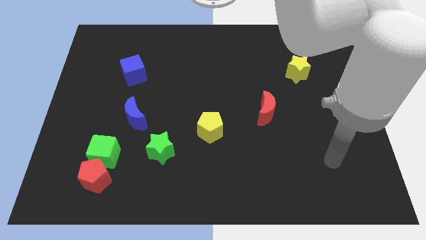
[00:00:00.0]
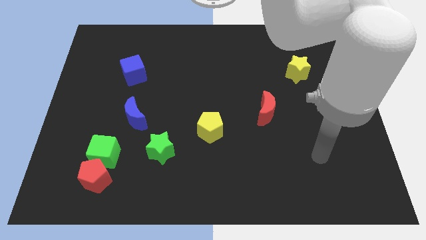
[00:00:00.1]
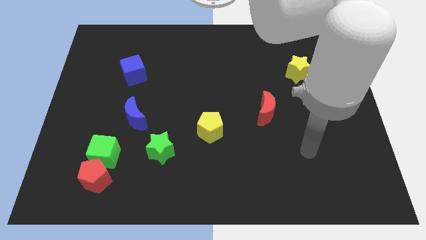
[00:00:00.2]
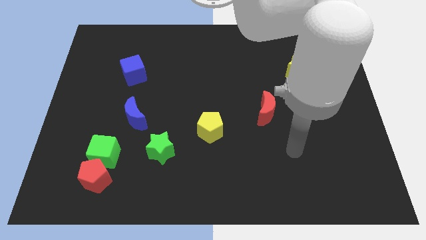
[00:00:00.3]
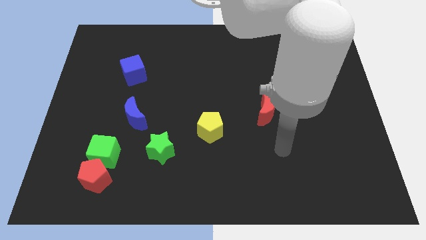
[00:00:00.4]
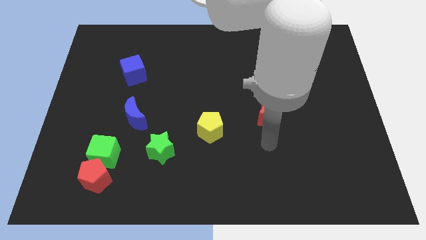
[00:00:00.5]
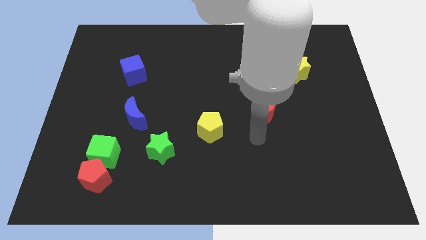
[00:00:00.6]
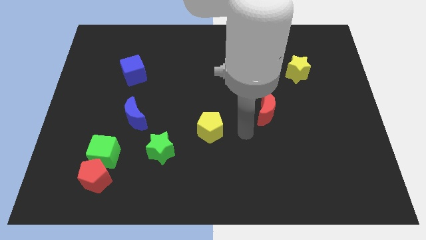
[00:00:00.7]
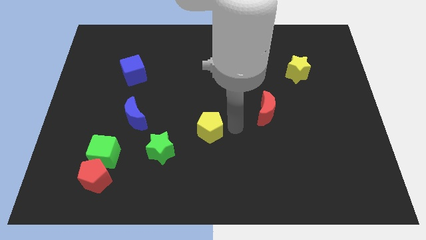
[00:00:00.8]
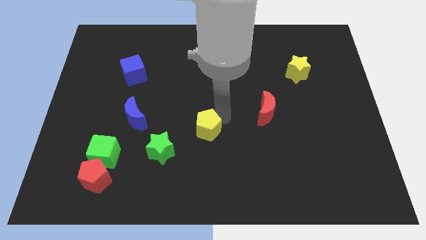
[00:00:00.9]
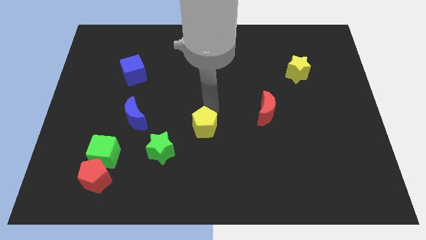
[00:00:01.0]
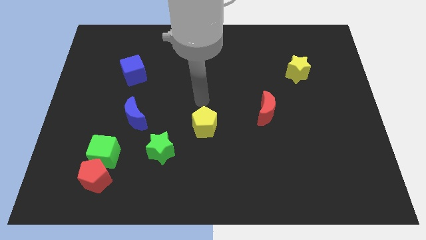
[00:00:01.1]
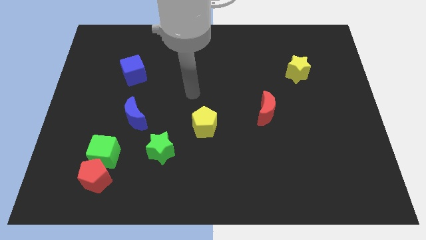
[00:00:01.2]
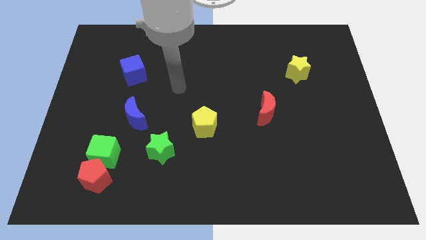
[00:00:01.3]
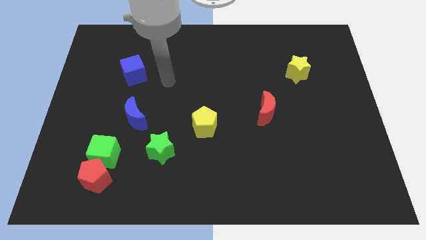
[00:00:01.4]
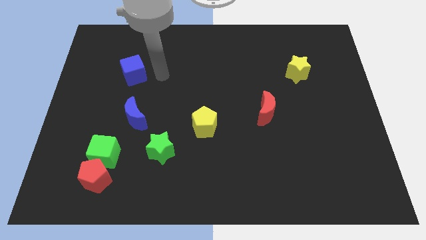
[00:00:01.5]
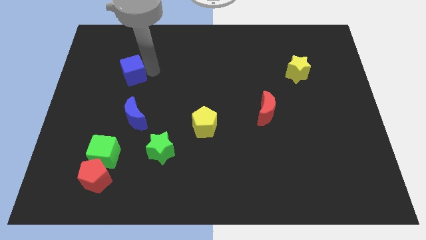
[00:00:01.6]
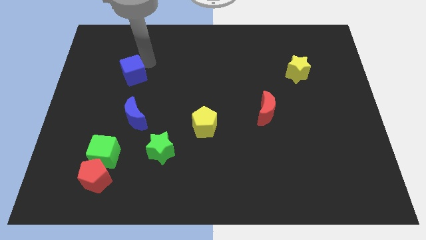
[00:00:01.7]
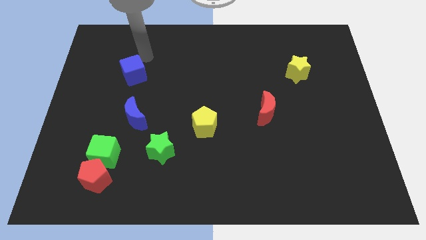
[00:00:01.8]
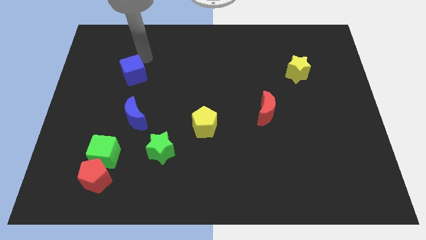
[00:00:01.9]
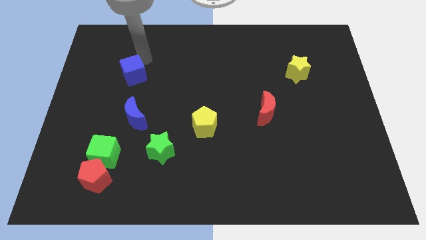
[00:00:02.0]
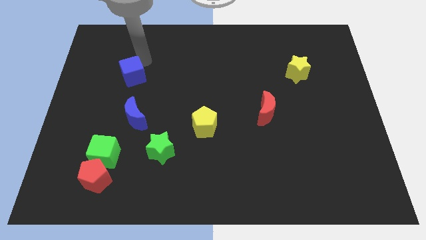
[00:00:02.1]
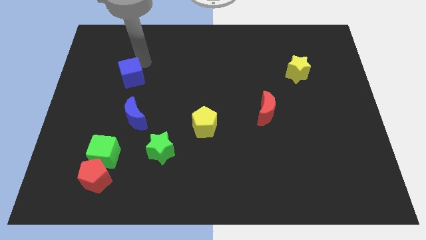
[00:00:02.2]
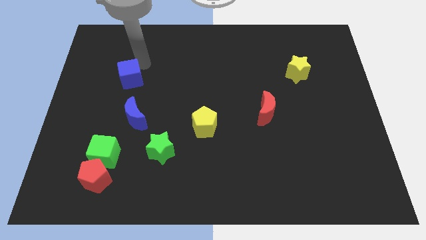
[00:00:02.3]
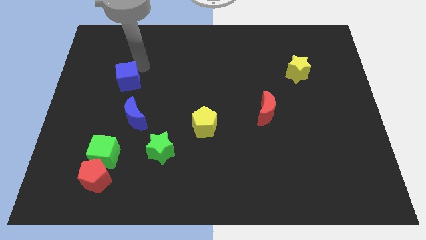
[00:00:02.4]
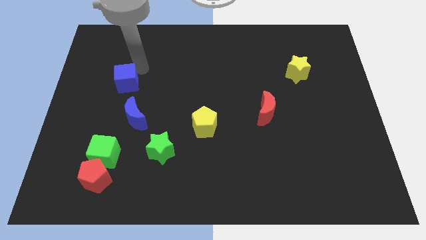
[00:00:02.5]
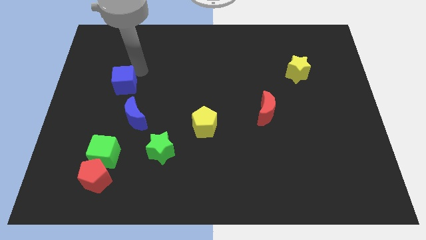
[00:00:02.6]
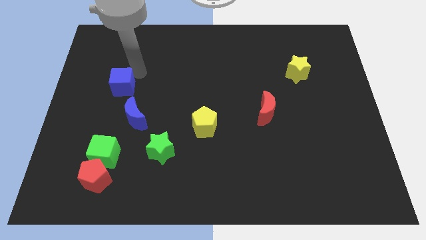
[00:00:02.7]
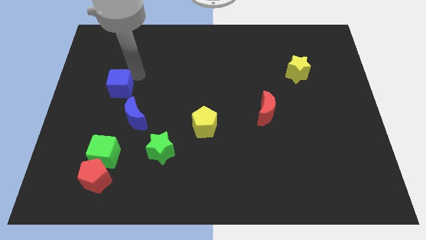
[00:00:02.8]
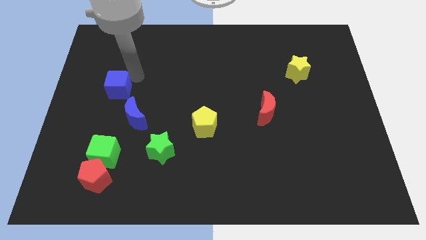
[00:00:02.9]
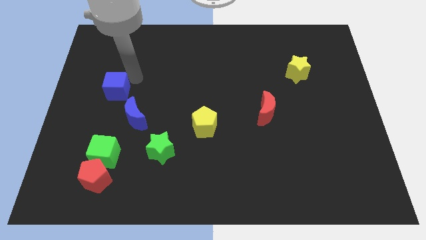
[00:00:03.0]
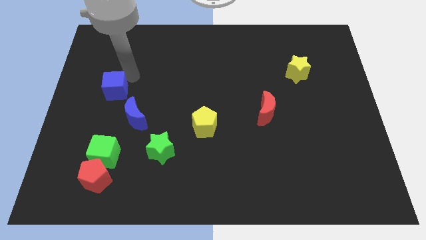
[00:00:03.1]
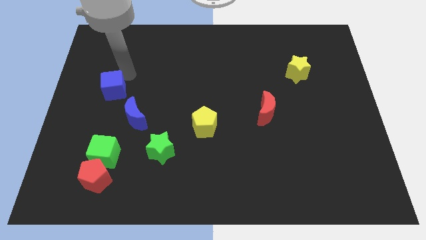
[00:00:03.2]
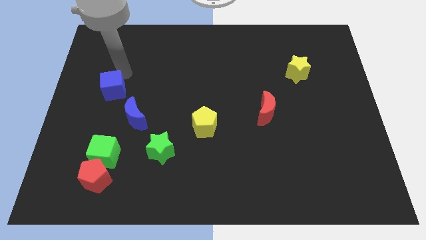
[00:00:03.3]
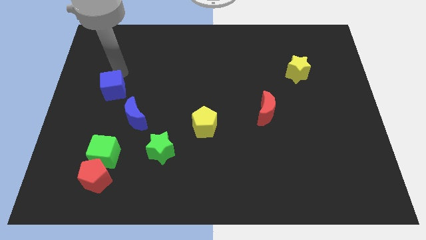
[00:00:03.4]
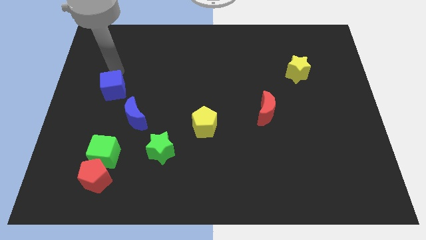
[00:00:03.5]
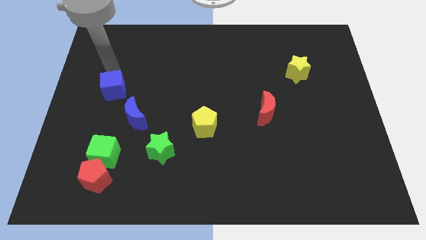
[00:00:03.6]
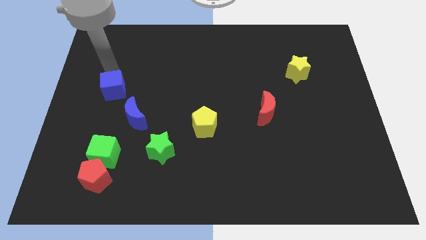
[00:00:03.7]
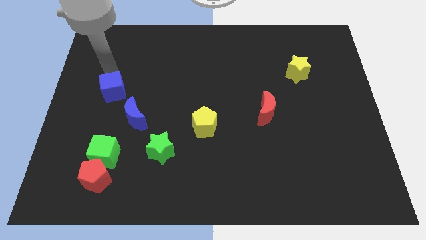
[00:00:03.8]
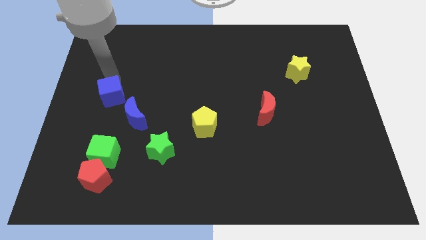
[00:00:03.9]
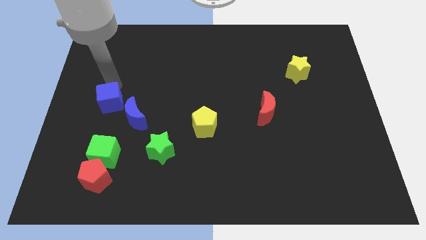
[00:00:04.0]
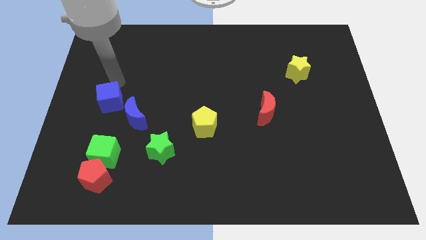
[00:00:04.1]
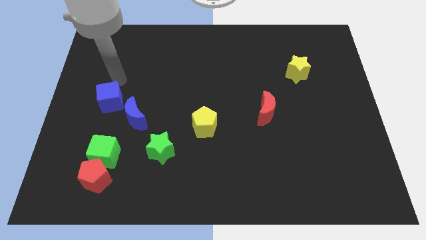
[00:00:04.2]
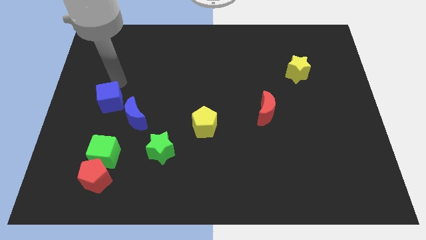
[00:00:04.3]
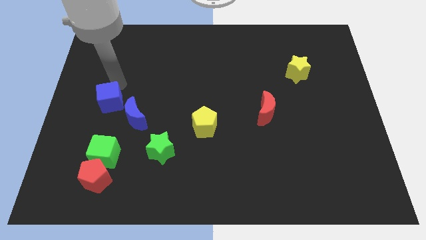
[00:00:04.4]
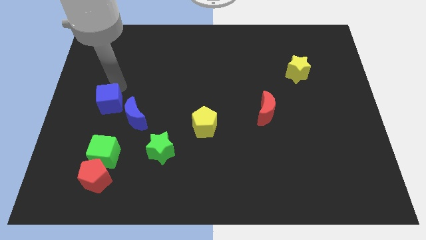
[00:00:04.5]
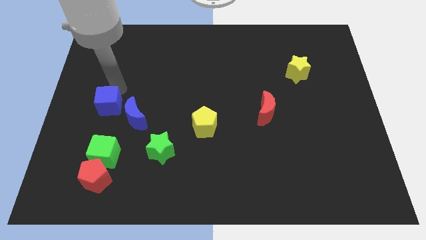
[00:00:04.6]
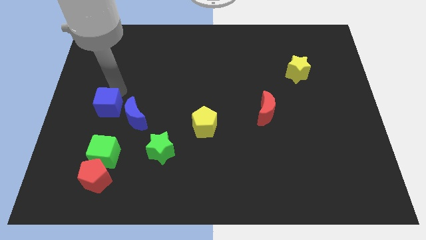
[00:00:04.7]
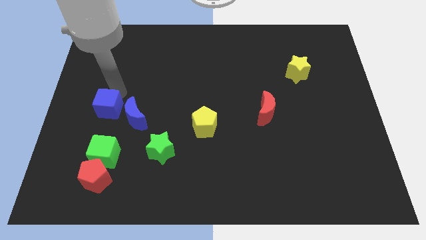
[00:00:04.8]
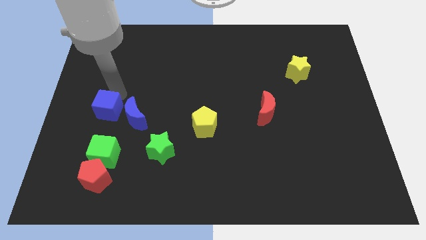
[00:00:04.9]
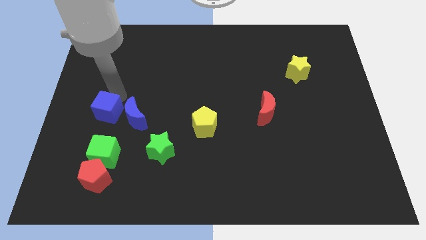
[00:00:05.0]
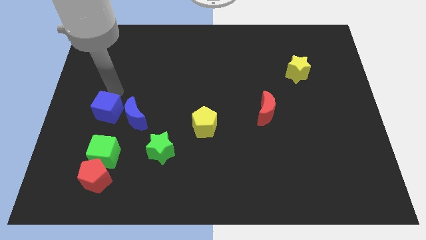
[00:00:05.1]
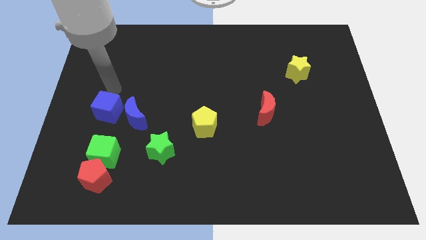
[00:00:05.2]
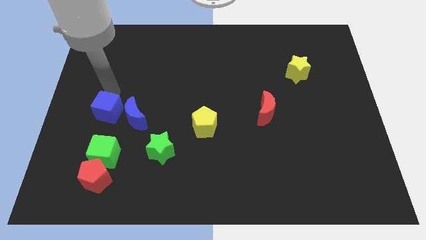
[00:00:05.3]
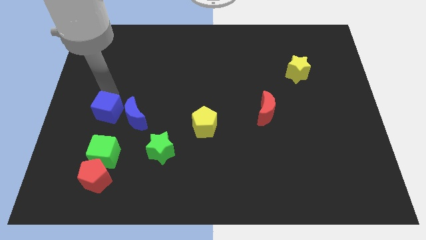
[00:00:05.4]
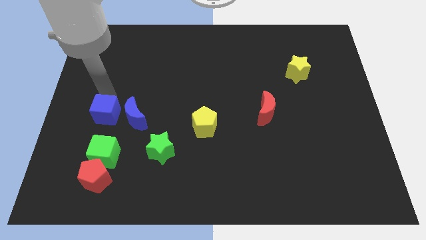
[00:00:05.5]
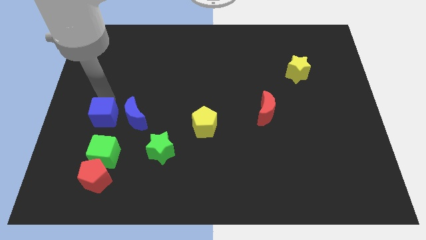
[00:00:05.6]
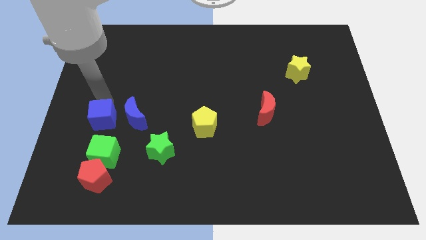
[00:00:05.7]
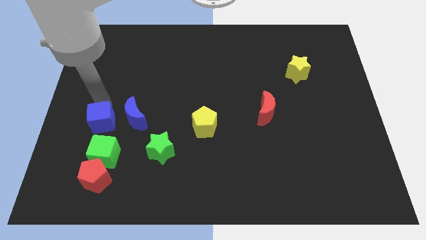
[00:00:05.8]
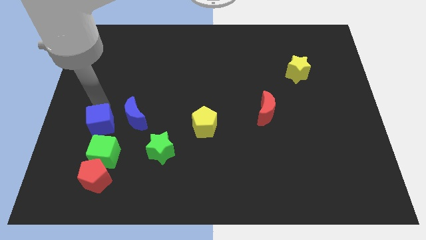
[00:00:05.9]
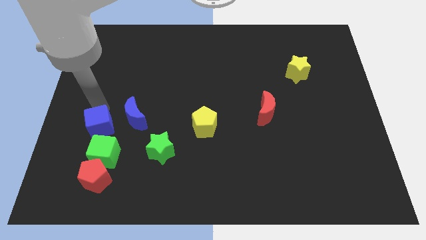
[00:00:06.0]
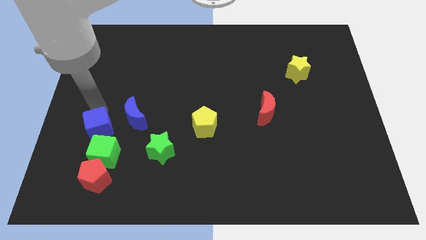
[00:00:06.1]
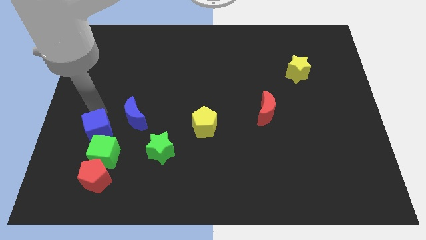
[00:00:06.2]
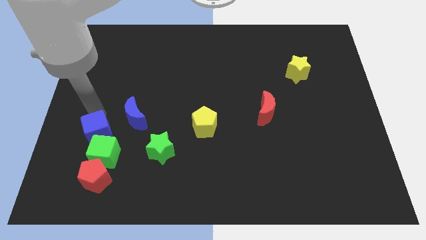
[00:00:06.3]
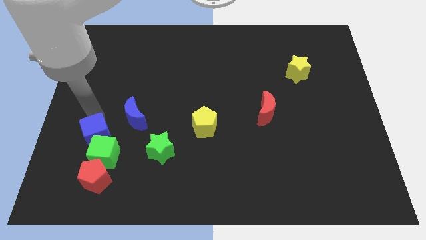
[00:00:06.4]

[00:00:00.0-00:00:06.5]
push the blue cube to the green cube

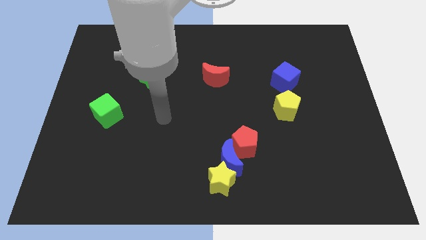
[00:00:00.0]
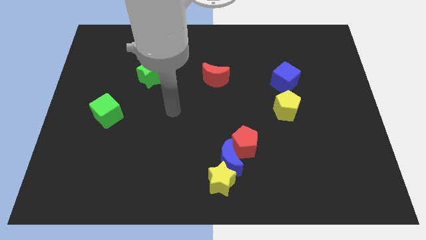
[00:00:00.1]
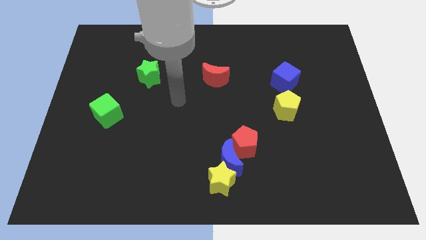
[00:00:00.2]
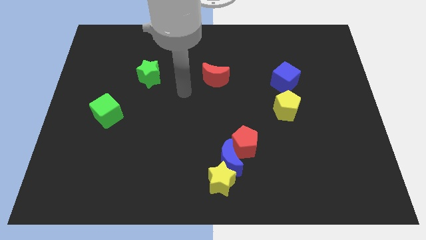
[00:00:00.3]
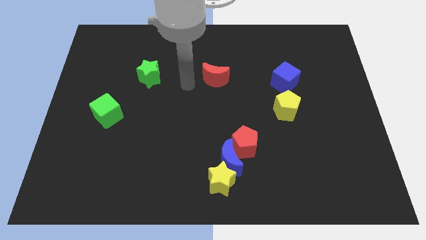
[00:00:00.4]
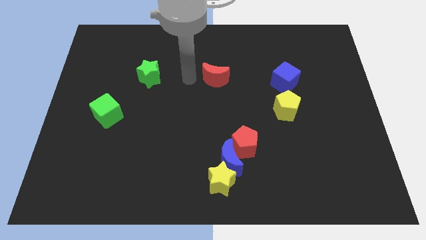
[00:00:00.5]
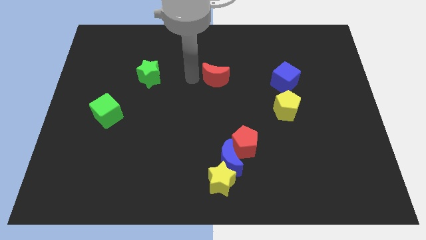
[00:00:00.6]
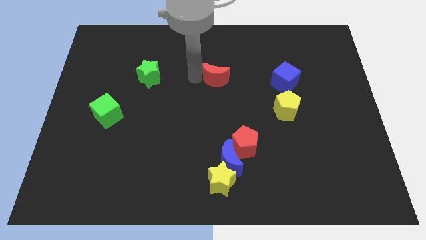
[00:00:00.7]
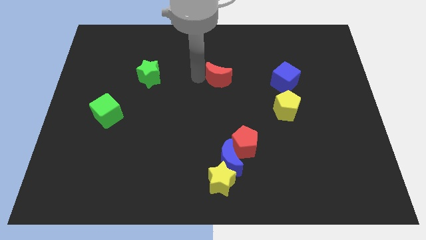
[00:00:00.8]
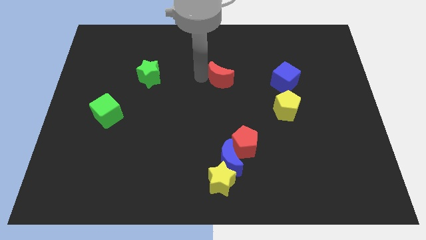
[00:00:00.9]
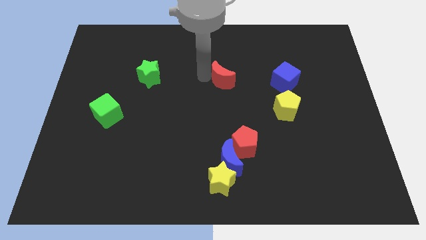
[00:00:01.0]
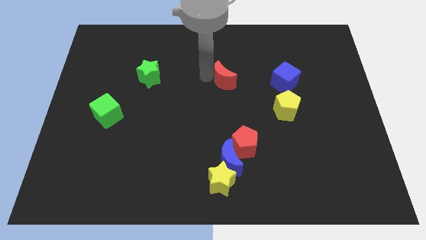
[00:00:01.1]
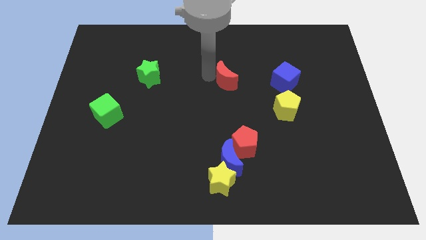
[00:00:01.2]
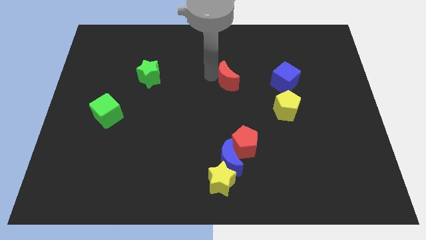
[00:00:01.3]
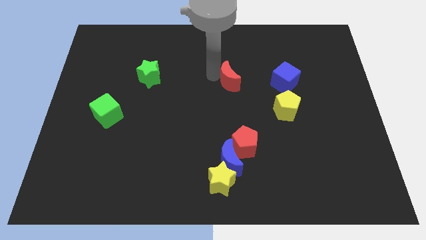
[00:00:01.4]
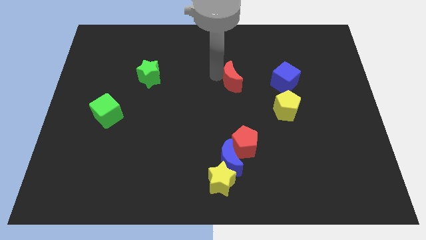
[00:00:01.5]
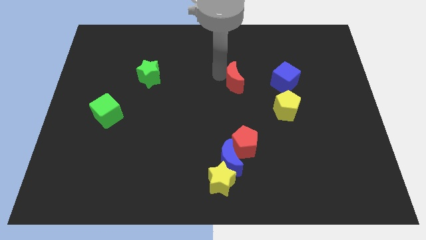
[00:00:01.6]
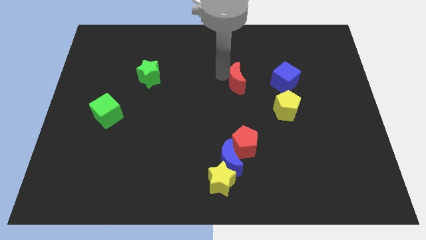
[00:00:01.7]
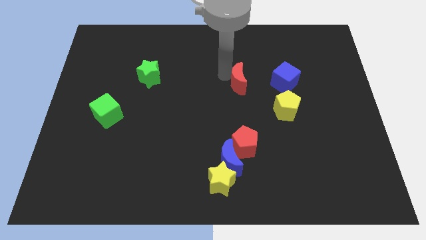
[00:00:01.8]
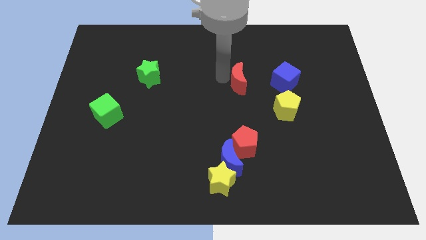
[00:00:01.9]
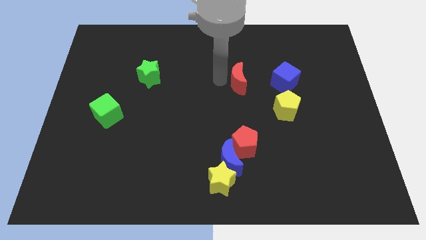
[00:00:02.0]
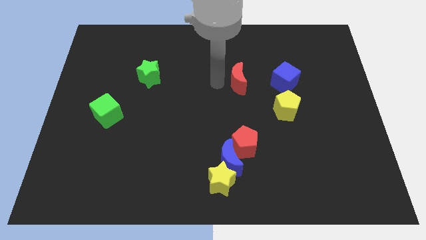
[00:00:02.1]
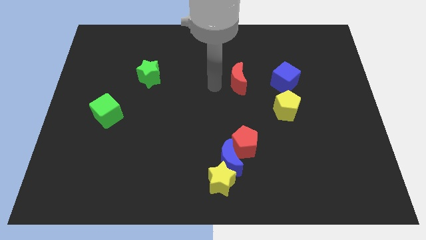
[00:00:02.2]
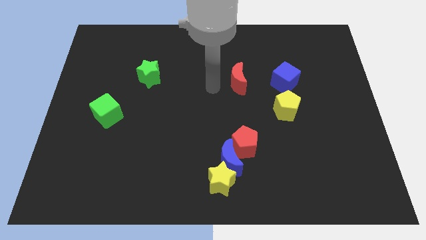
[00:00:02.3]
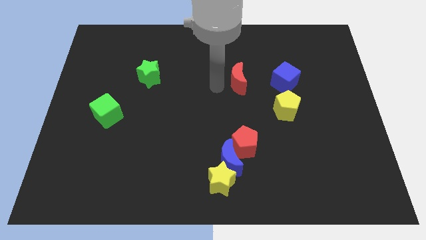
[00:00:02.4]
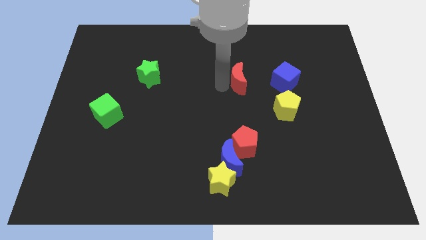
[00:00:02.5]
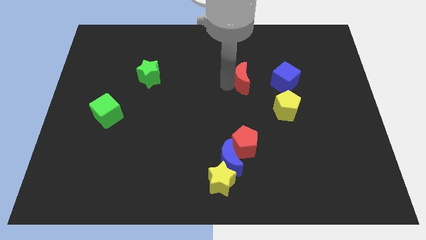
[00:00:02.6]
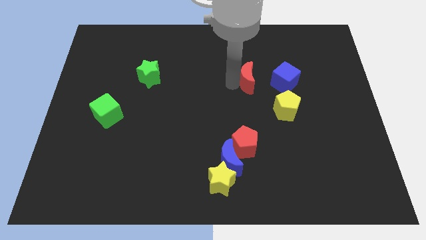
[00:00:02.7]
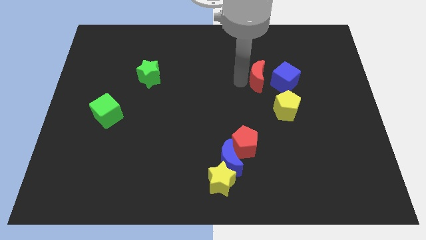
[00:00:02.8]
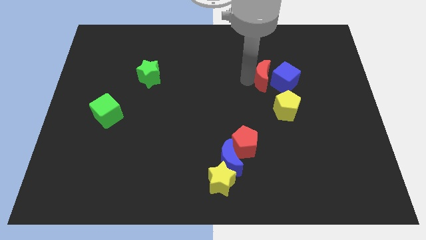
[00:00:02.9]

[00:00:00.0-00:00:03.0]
move the red moon towards the blue cube
